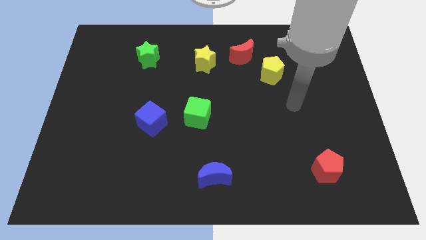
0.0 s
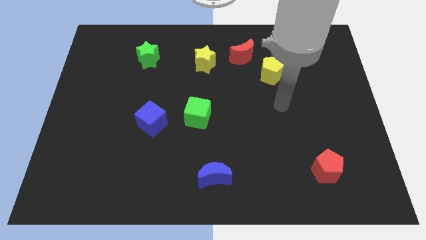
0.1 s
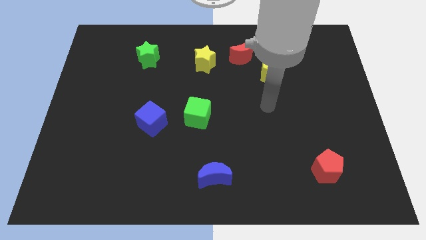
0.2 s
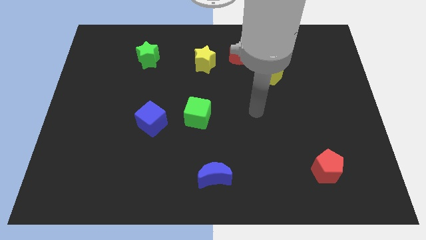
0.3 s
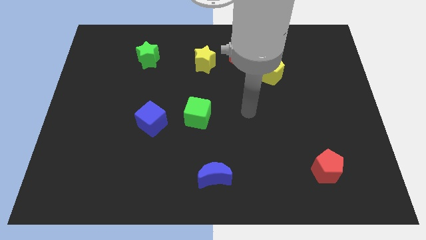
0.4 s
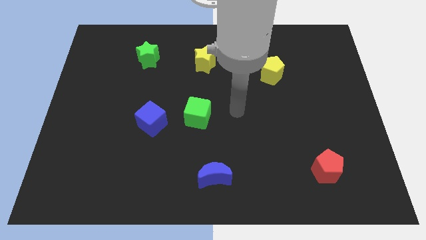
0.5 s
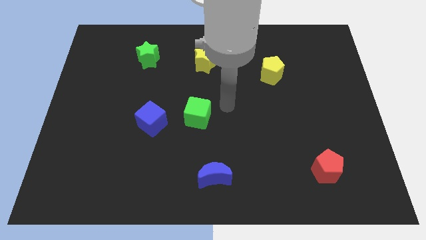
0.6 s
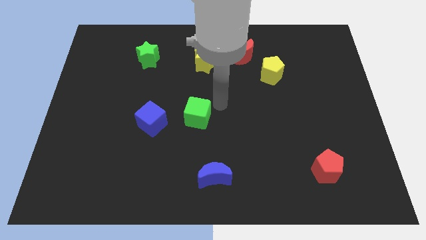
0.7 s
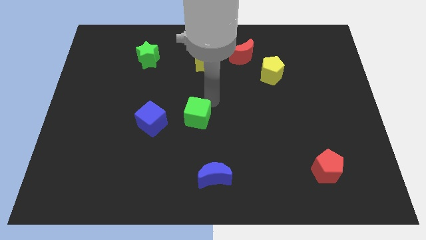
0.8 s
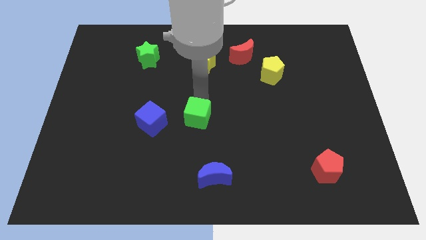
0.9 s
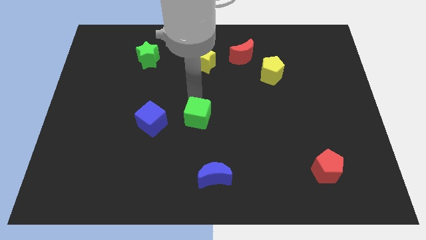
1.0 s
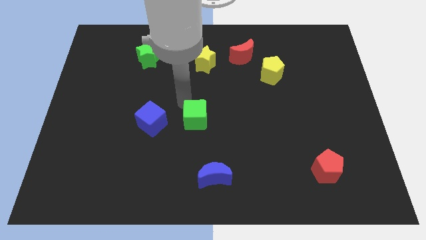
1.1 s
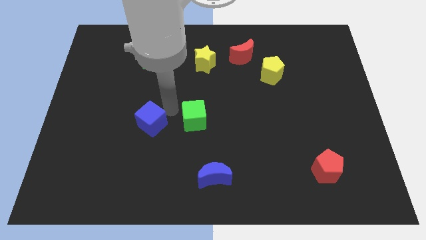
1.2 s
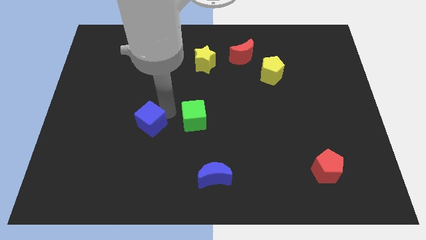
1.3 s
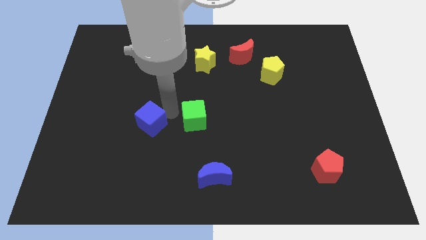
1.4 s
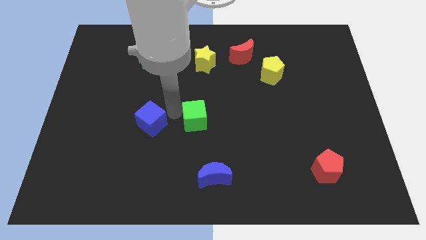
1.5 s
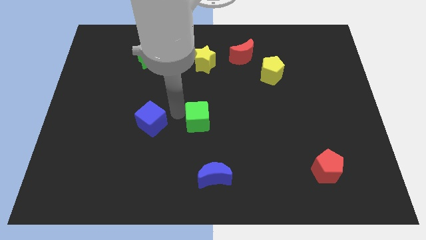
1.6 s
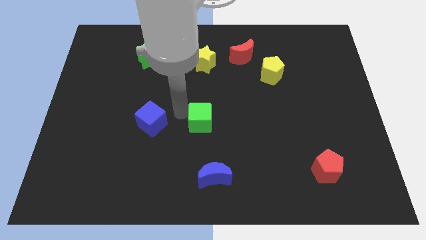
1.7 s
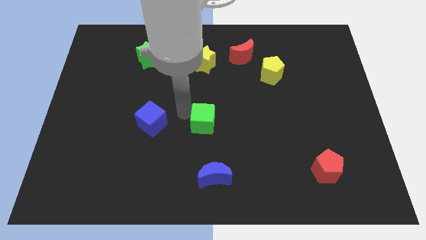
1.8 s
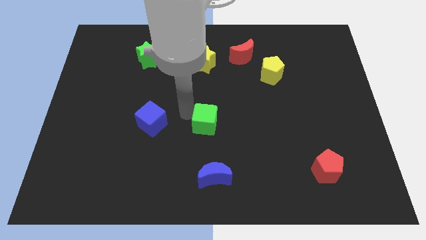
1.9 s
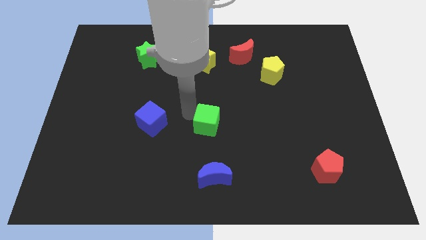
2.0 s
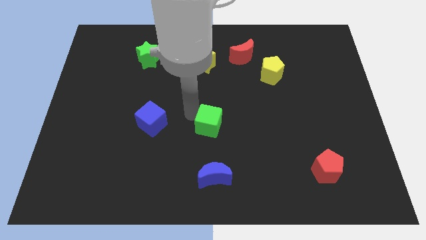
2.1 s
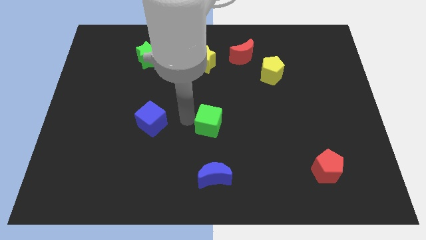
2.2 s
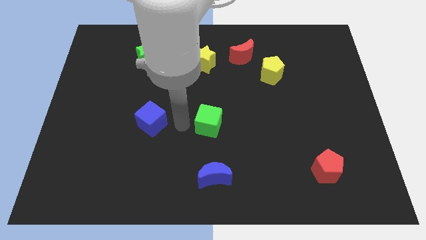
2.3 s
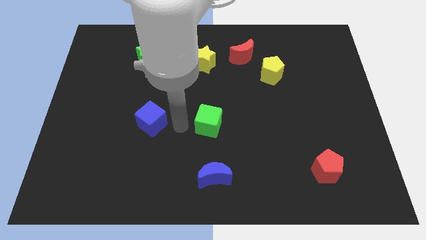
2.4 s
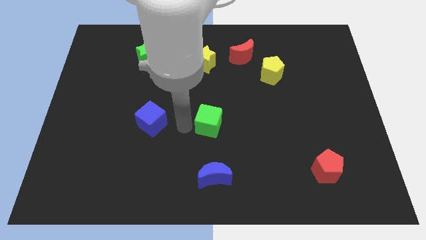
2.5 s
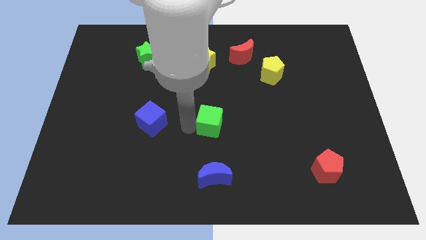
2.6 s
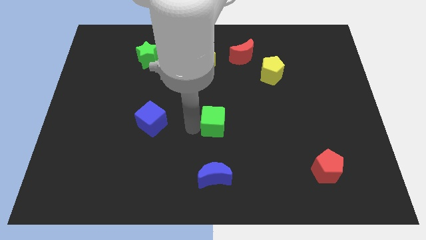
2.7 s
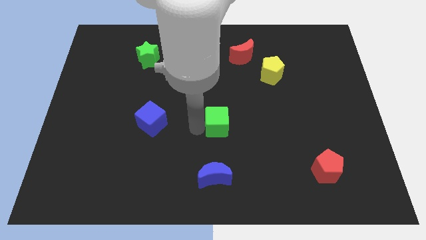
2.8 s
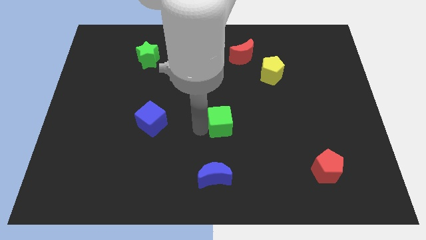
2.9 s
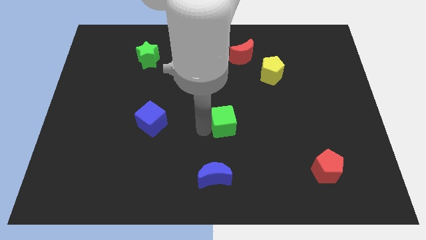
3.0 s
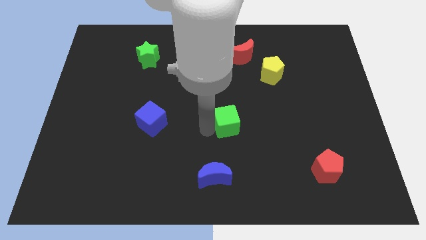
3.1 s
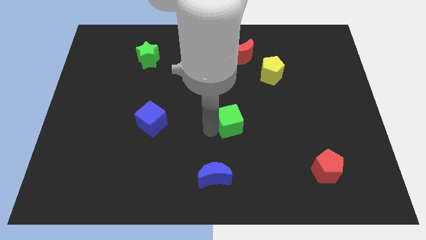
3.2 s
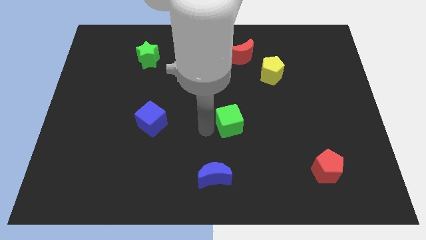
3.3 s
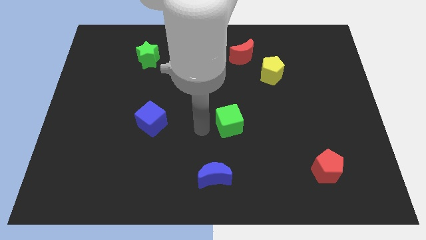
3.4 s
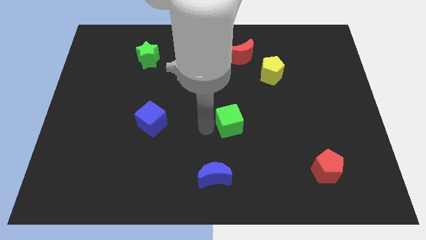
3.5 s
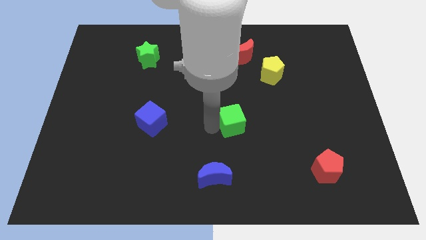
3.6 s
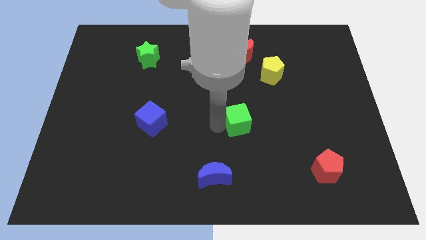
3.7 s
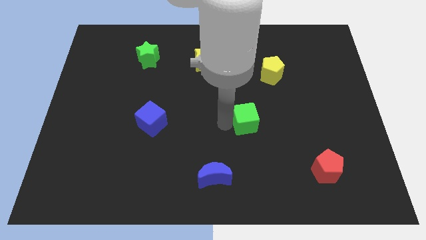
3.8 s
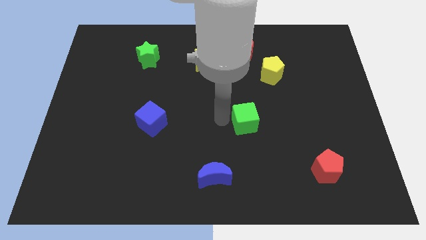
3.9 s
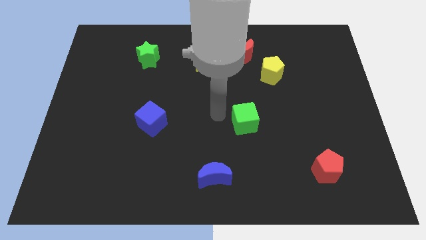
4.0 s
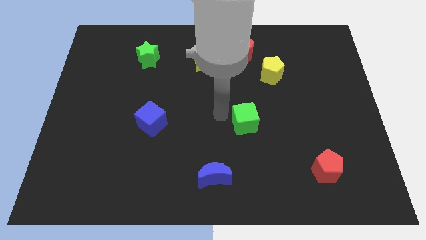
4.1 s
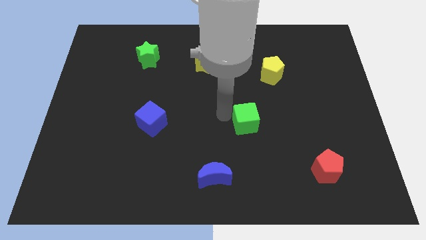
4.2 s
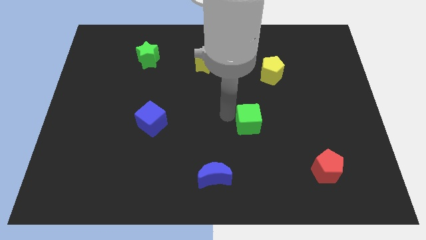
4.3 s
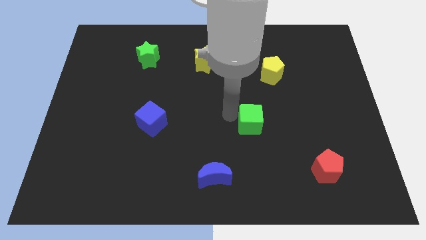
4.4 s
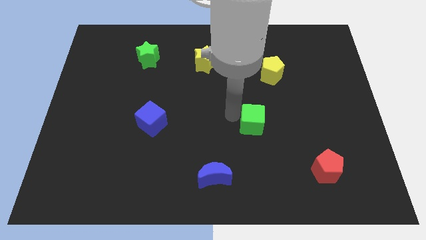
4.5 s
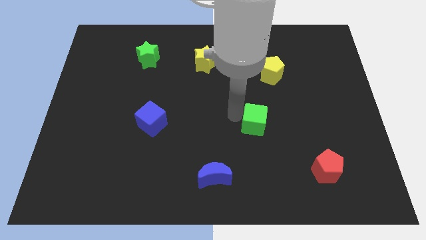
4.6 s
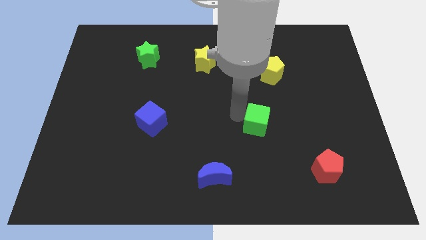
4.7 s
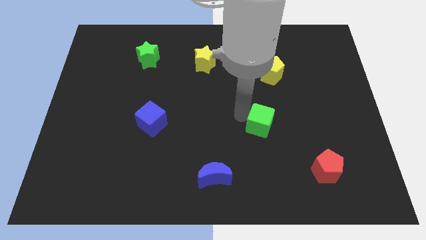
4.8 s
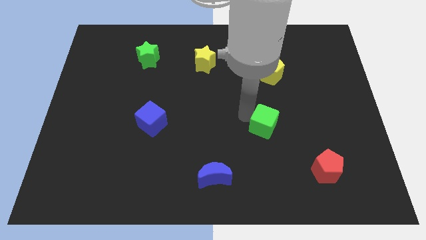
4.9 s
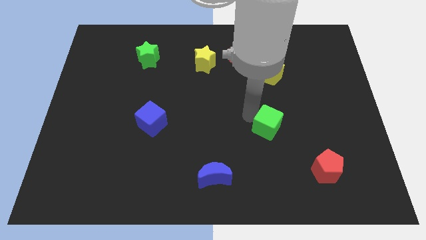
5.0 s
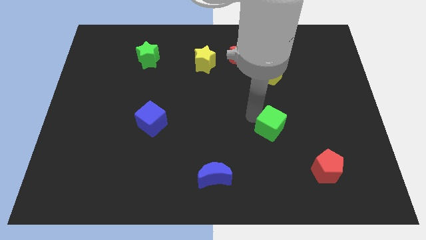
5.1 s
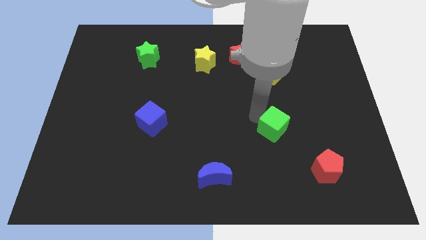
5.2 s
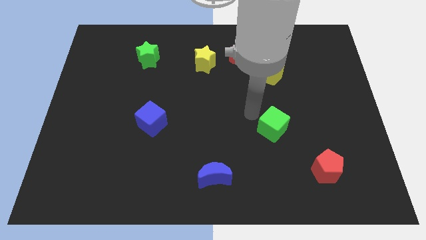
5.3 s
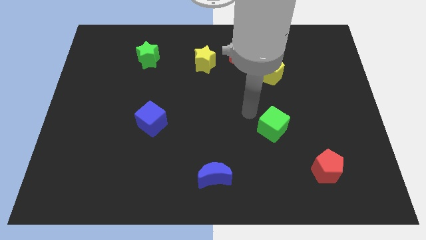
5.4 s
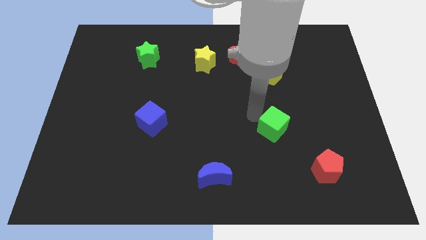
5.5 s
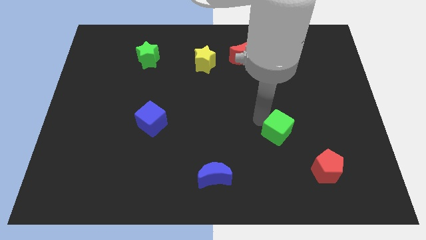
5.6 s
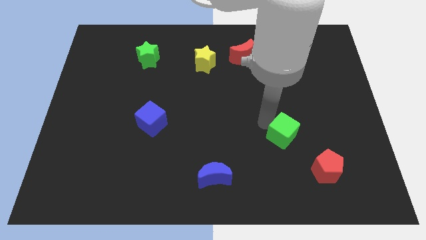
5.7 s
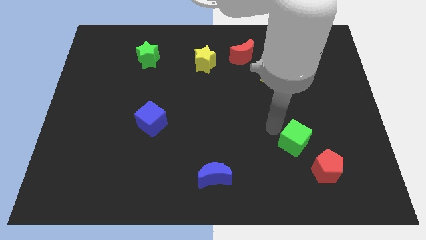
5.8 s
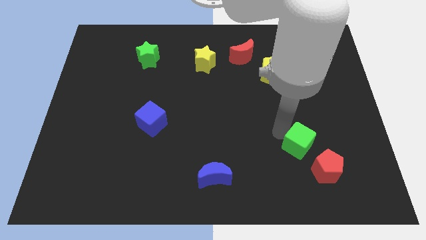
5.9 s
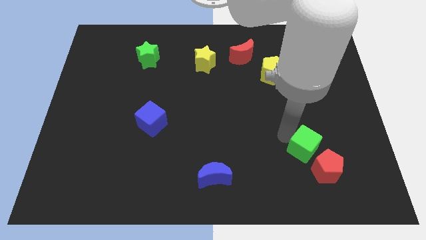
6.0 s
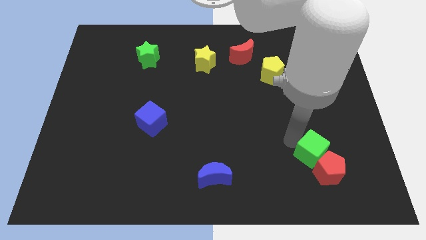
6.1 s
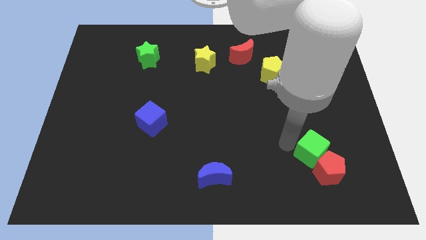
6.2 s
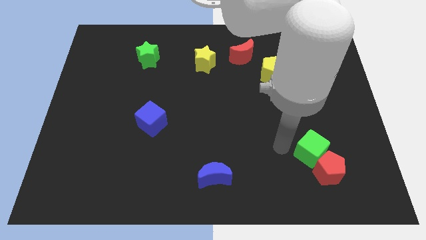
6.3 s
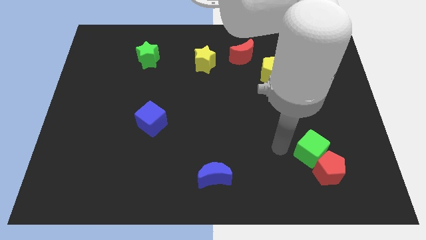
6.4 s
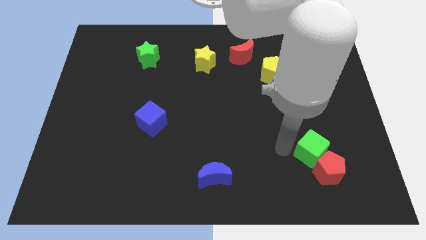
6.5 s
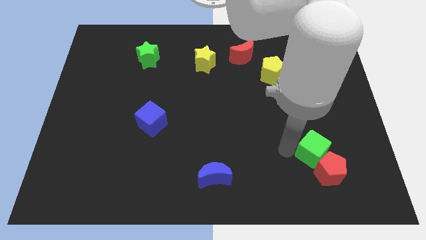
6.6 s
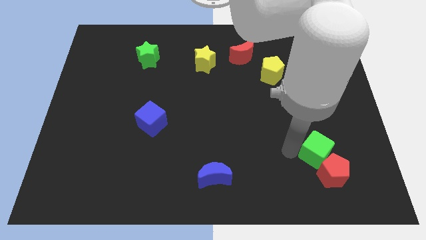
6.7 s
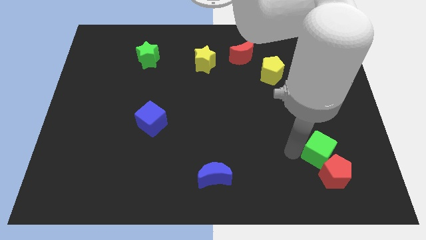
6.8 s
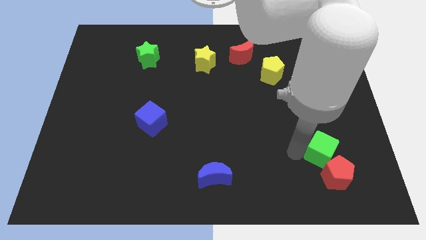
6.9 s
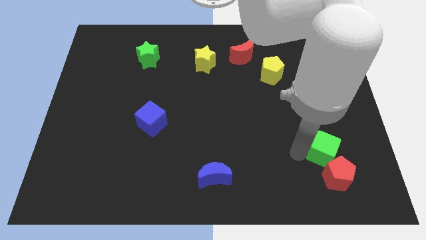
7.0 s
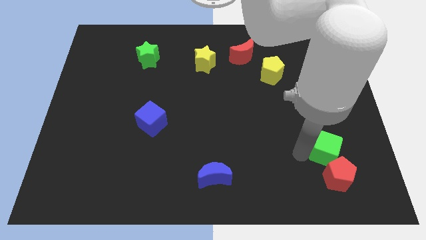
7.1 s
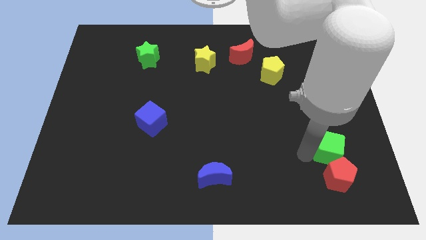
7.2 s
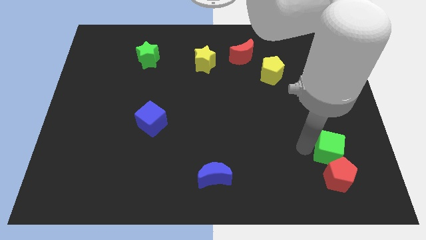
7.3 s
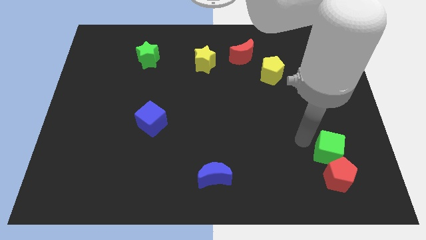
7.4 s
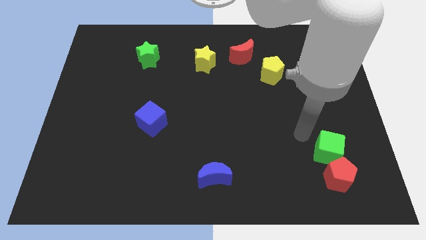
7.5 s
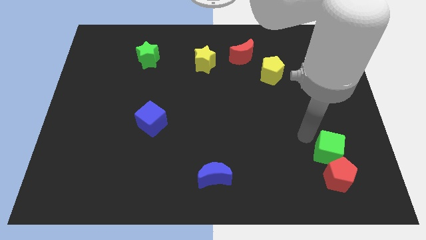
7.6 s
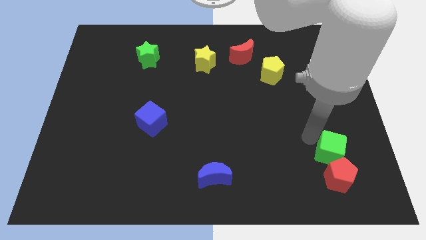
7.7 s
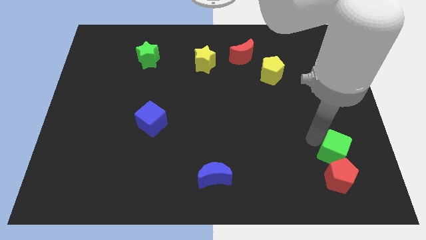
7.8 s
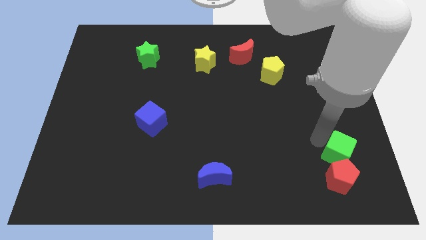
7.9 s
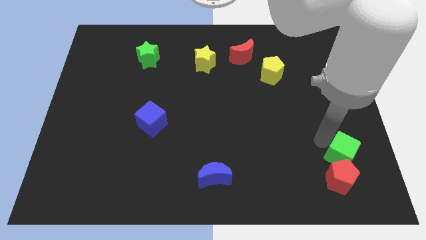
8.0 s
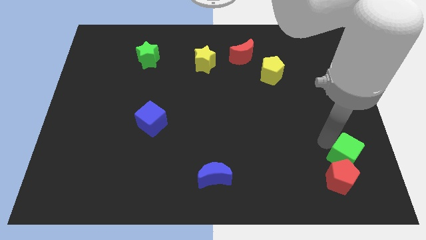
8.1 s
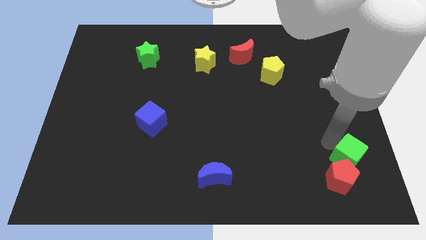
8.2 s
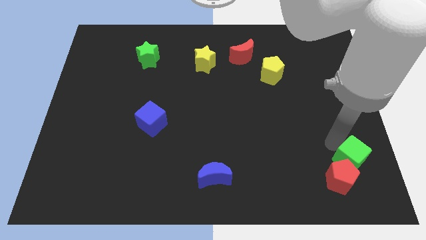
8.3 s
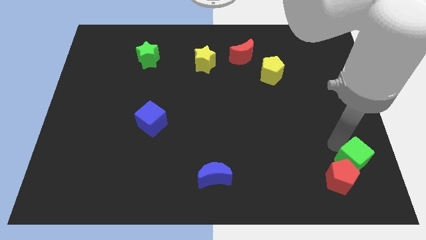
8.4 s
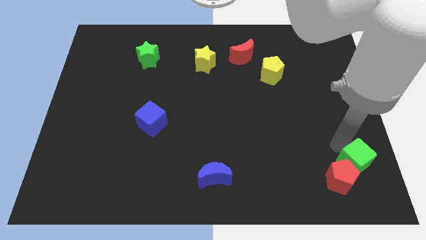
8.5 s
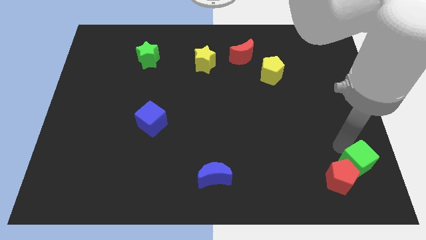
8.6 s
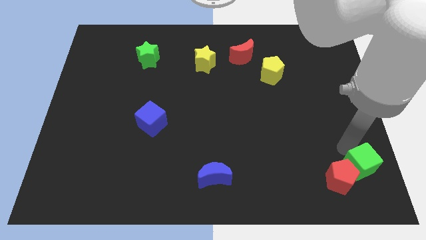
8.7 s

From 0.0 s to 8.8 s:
move the green cube to the bottom right of the board
